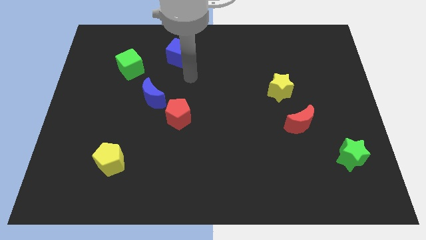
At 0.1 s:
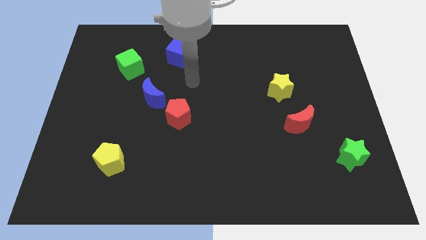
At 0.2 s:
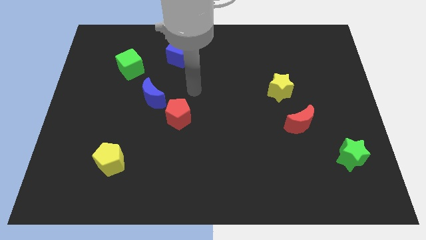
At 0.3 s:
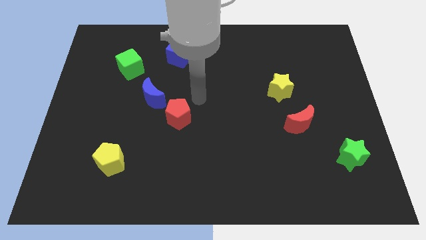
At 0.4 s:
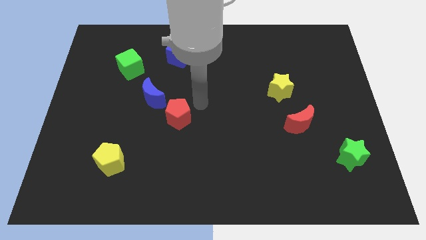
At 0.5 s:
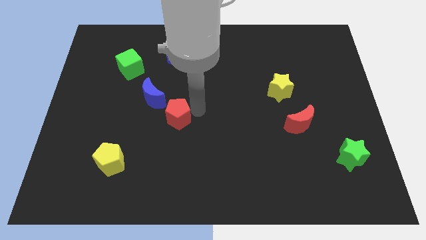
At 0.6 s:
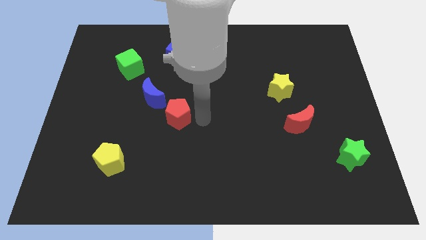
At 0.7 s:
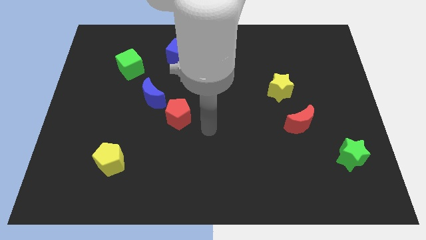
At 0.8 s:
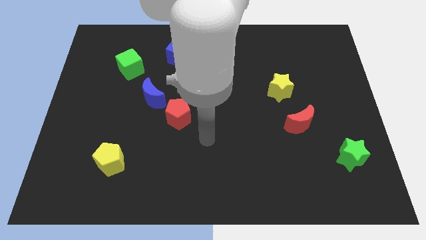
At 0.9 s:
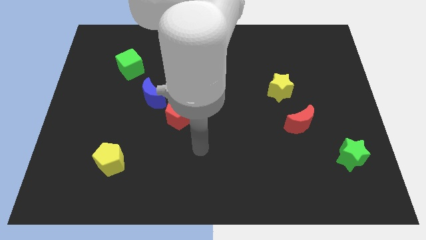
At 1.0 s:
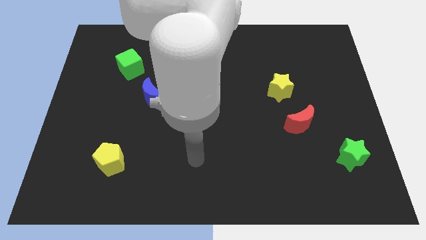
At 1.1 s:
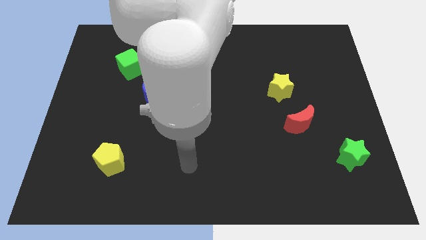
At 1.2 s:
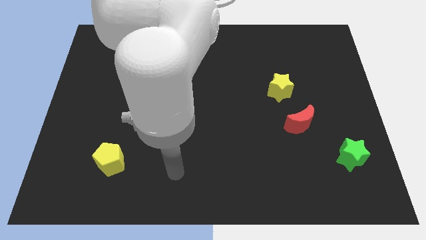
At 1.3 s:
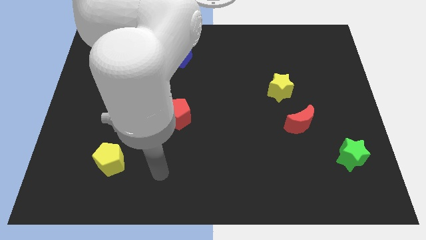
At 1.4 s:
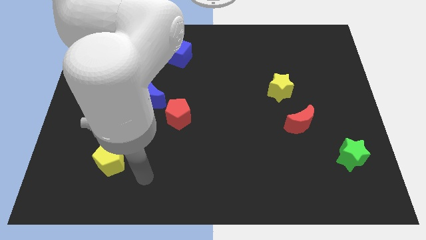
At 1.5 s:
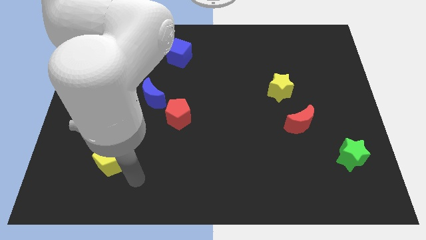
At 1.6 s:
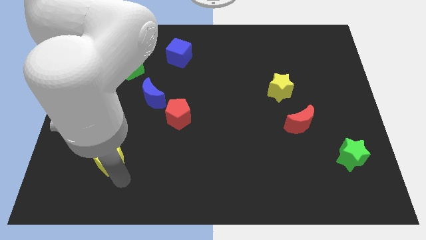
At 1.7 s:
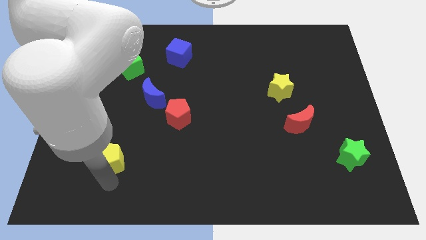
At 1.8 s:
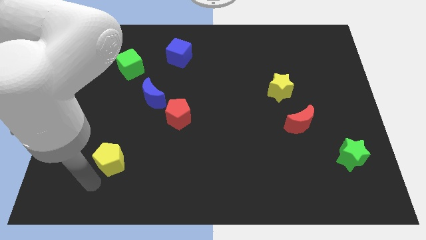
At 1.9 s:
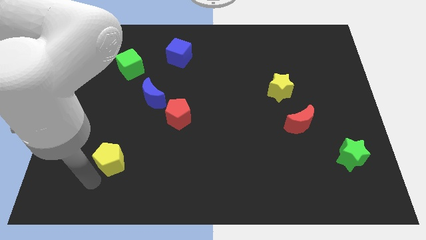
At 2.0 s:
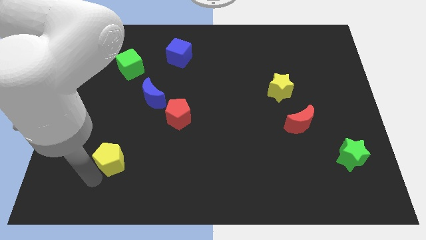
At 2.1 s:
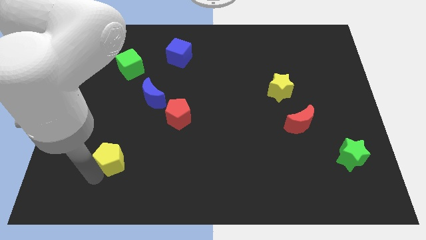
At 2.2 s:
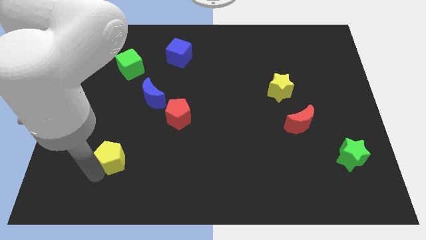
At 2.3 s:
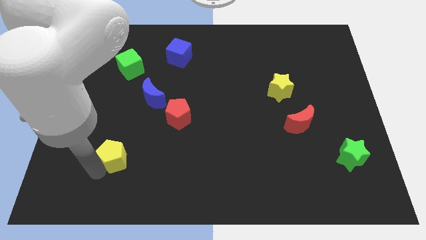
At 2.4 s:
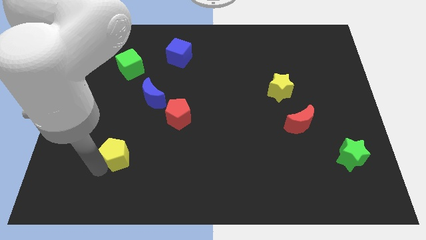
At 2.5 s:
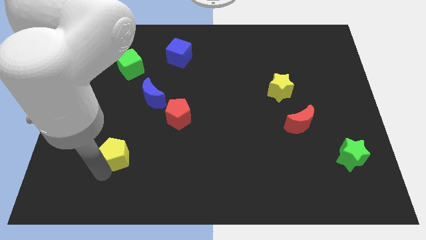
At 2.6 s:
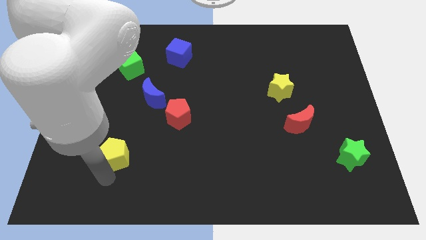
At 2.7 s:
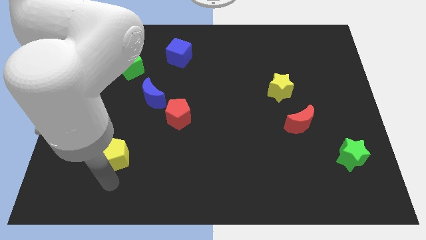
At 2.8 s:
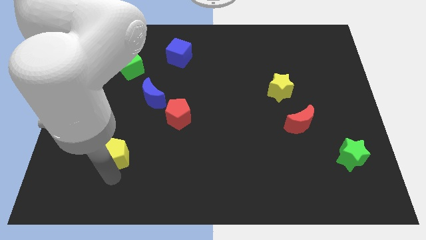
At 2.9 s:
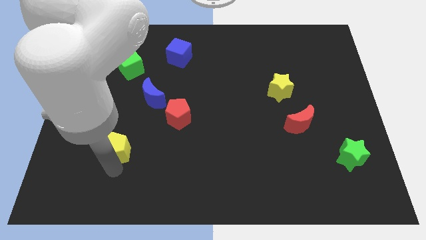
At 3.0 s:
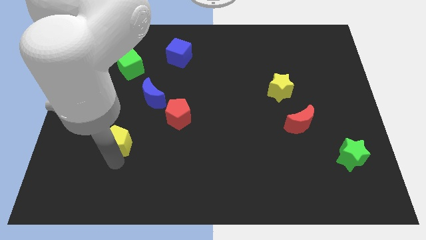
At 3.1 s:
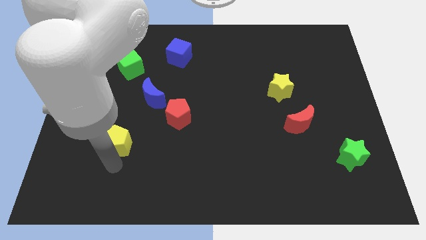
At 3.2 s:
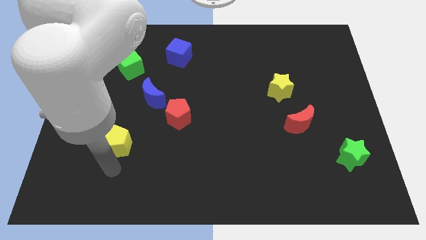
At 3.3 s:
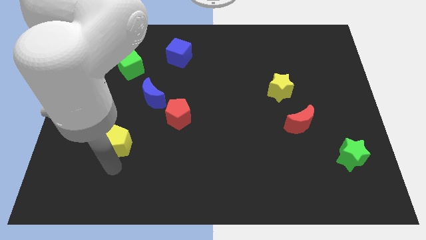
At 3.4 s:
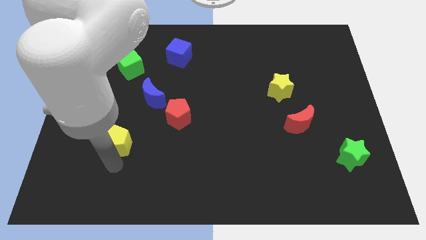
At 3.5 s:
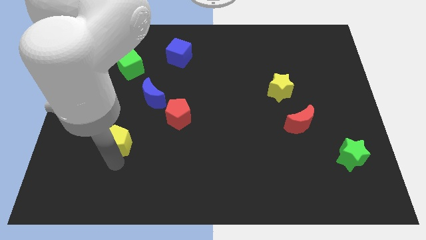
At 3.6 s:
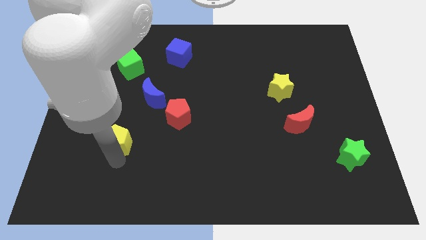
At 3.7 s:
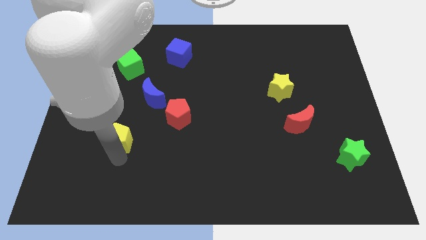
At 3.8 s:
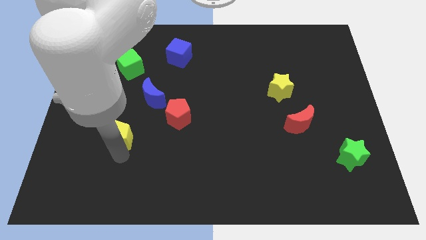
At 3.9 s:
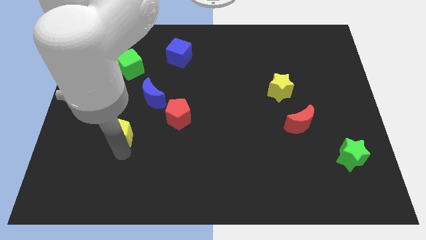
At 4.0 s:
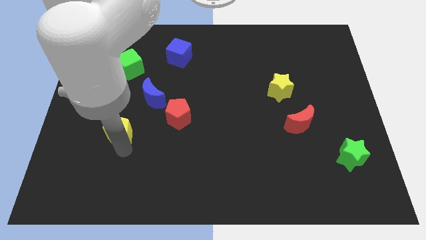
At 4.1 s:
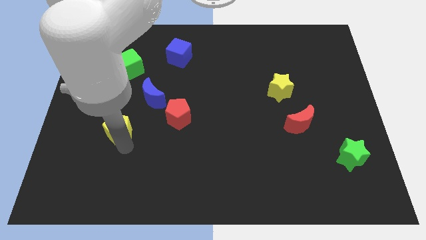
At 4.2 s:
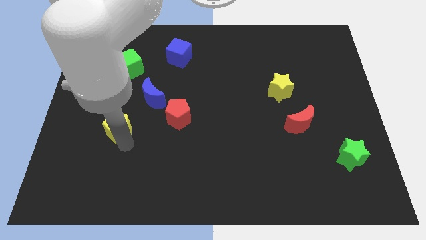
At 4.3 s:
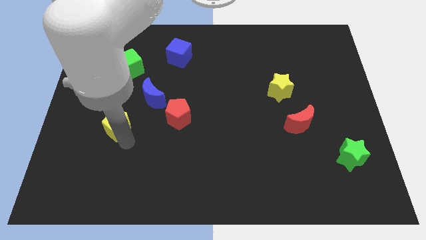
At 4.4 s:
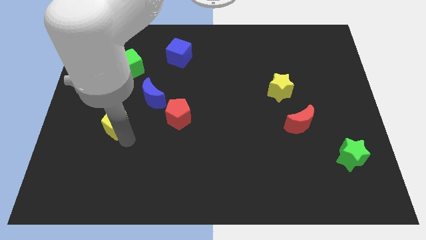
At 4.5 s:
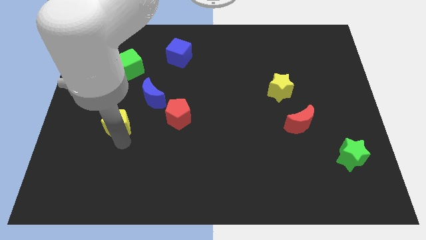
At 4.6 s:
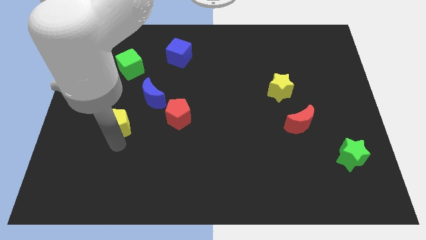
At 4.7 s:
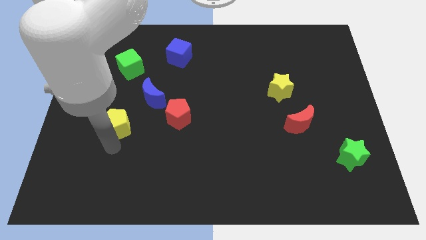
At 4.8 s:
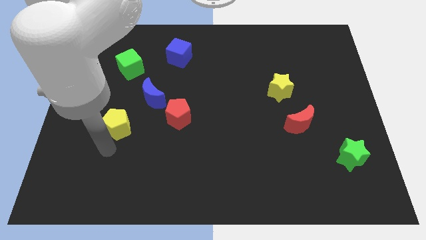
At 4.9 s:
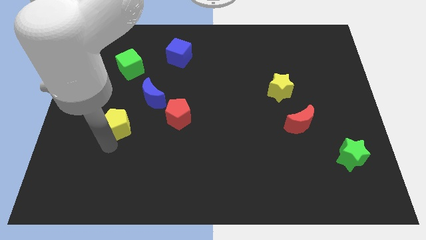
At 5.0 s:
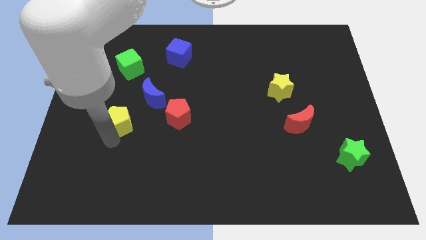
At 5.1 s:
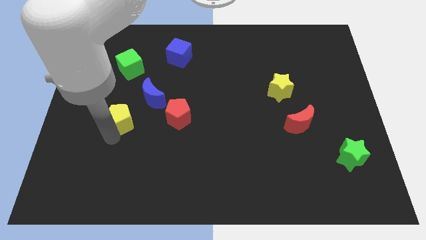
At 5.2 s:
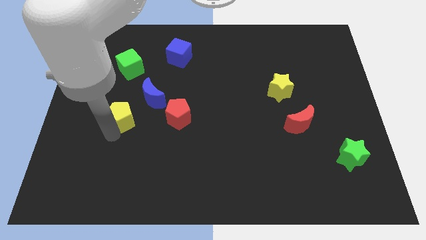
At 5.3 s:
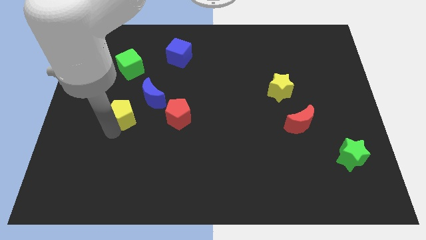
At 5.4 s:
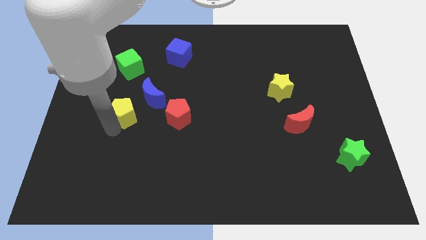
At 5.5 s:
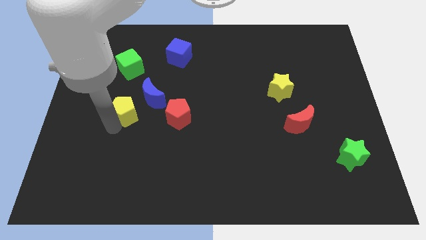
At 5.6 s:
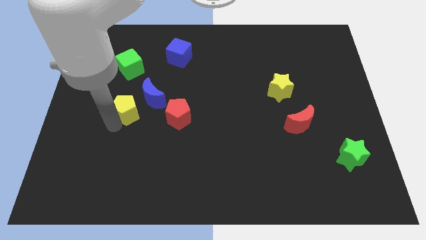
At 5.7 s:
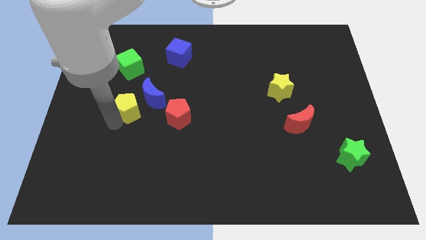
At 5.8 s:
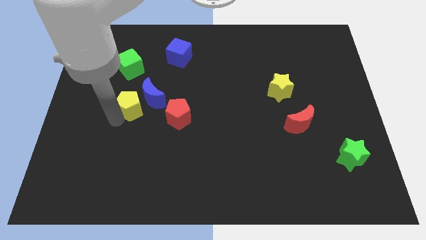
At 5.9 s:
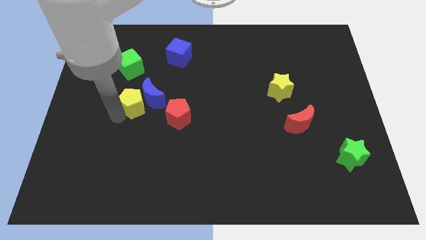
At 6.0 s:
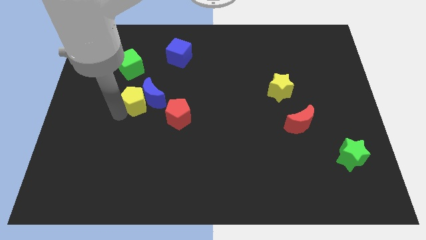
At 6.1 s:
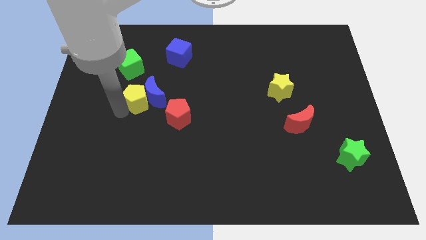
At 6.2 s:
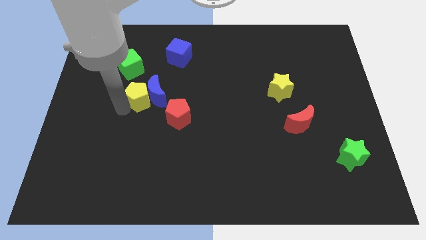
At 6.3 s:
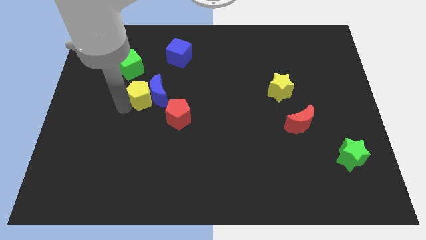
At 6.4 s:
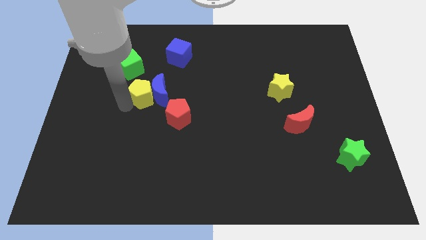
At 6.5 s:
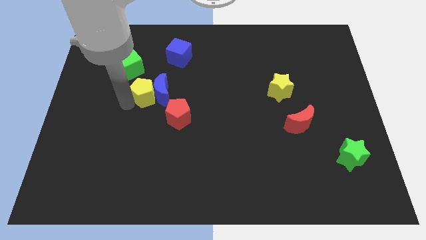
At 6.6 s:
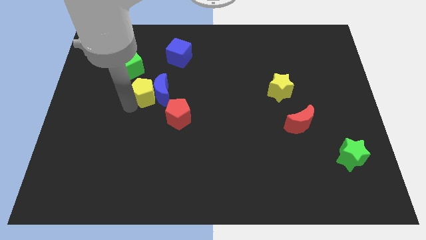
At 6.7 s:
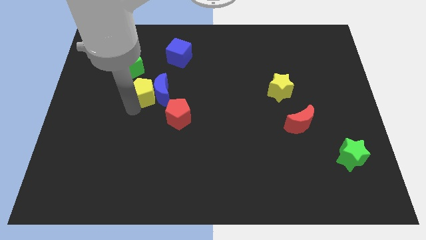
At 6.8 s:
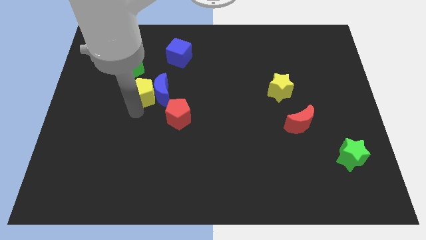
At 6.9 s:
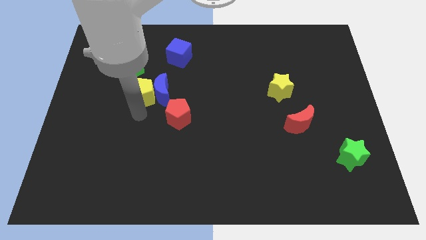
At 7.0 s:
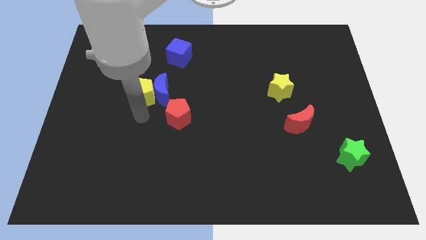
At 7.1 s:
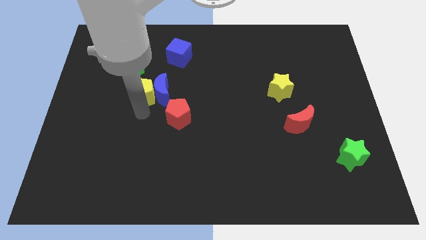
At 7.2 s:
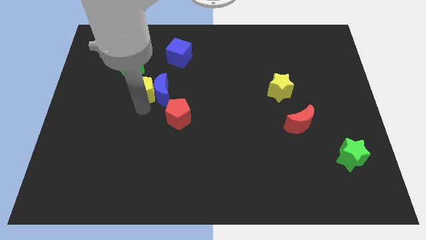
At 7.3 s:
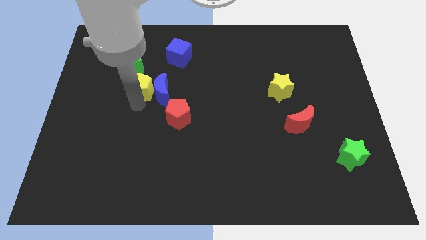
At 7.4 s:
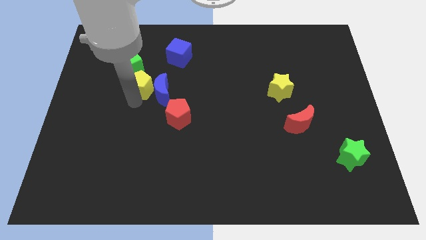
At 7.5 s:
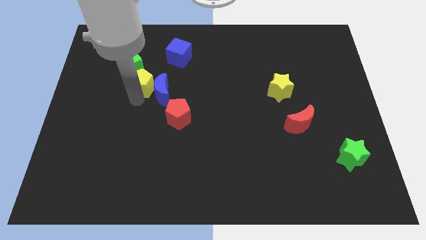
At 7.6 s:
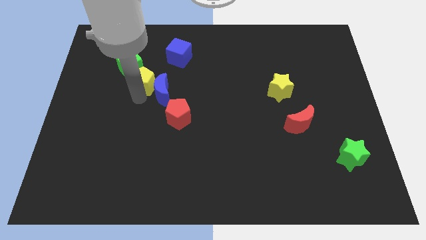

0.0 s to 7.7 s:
put the yellow pentagon to the bottom left of the blue cube

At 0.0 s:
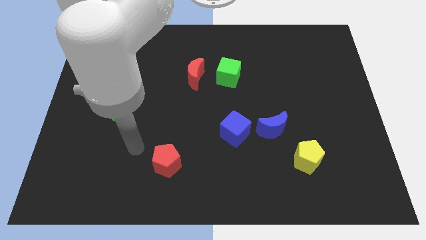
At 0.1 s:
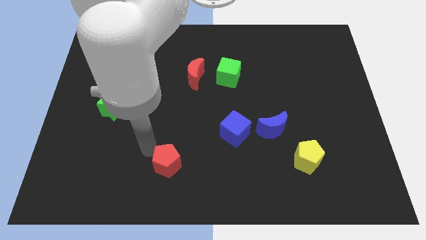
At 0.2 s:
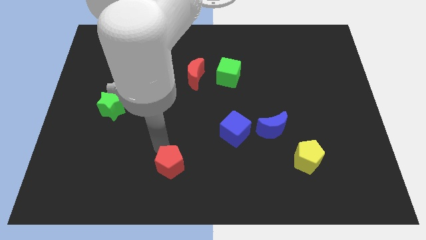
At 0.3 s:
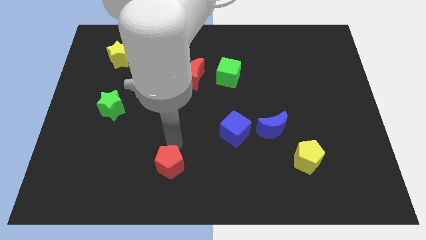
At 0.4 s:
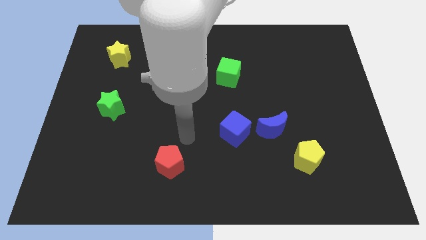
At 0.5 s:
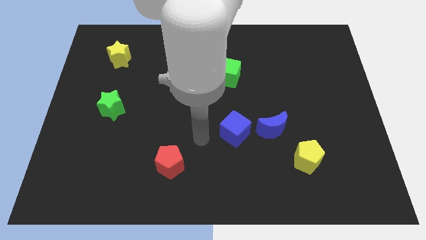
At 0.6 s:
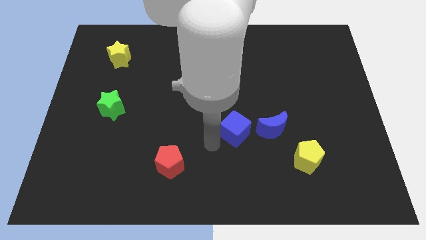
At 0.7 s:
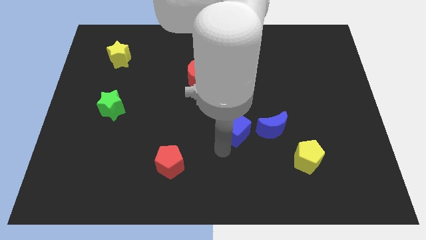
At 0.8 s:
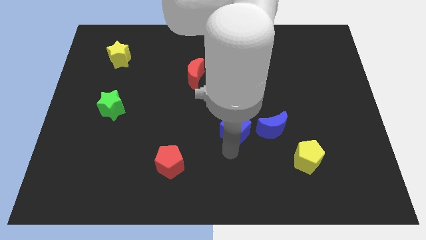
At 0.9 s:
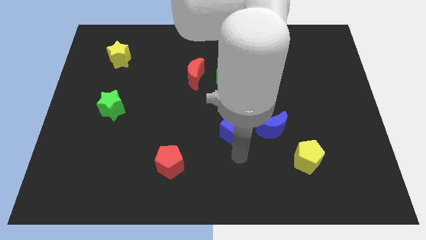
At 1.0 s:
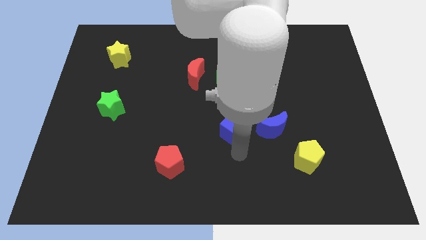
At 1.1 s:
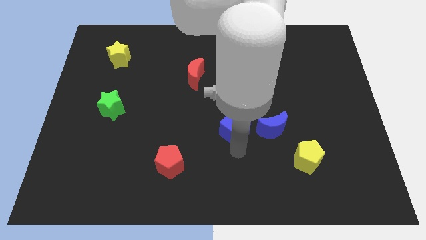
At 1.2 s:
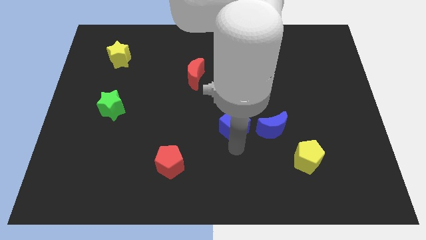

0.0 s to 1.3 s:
push the blue cube to the bottom side of the green cube
